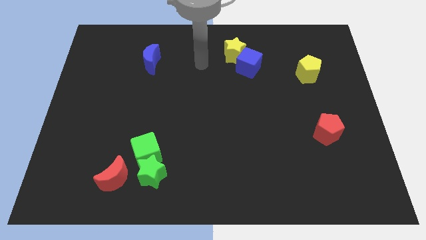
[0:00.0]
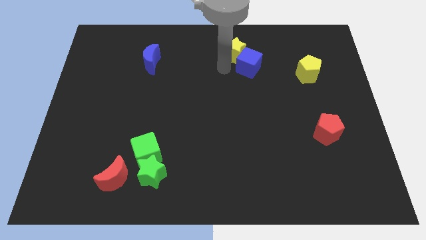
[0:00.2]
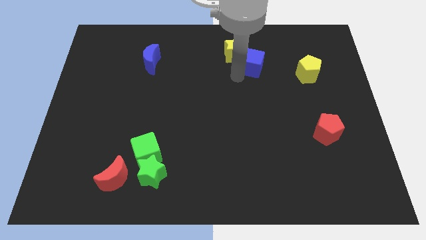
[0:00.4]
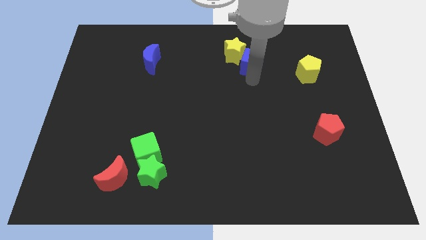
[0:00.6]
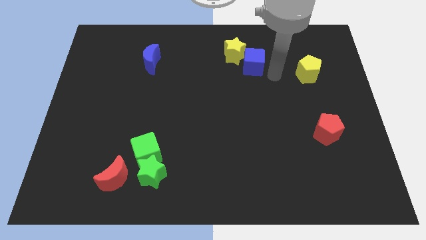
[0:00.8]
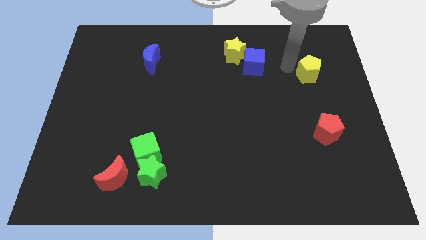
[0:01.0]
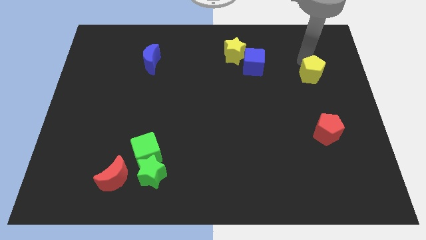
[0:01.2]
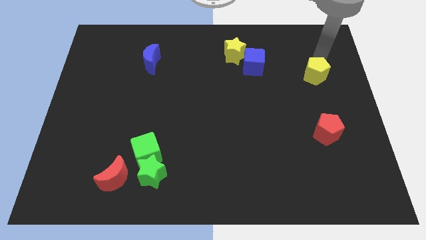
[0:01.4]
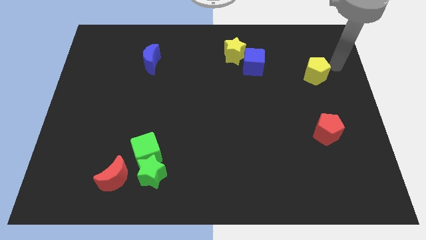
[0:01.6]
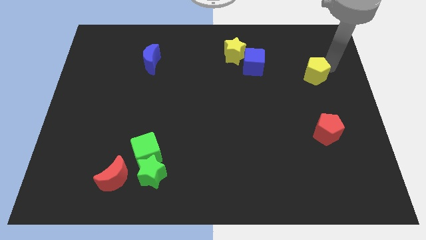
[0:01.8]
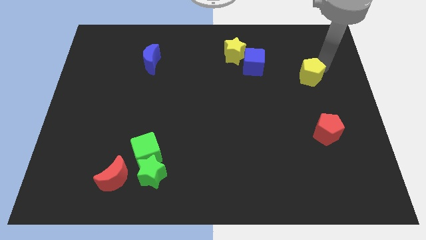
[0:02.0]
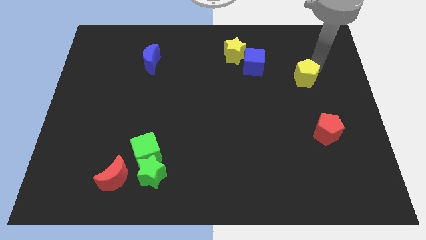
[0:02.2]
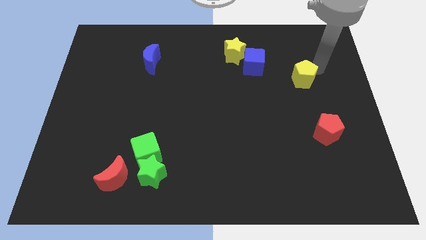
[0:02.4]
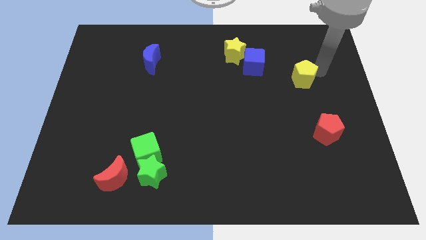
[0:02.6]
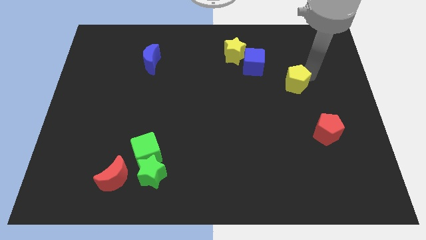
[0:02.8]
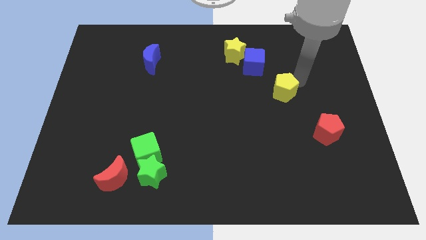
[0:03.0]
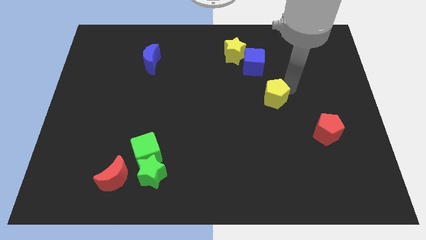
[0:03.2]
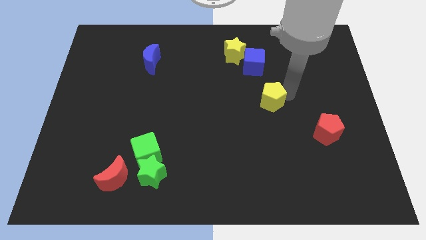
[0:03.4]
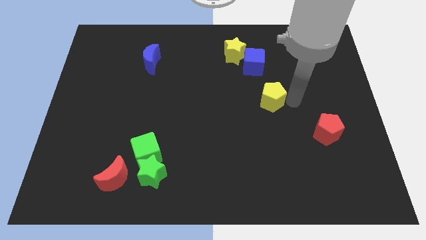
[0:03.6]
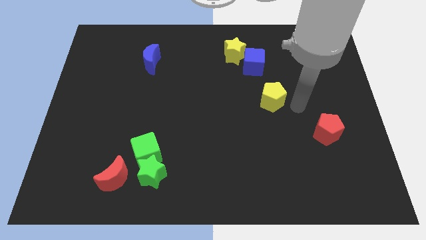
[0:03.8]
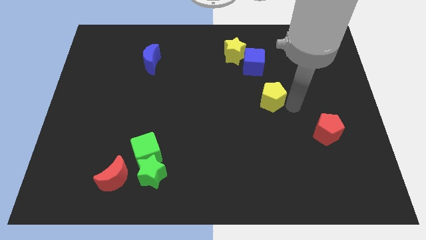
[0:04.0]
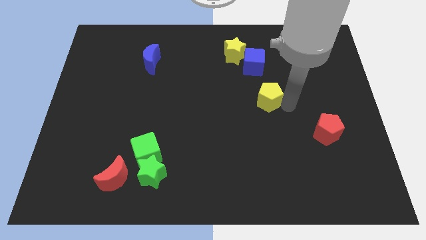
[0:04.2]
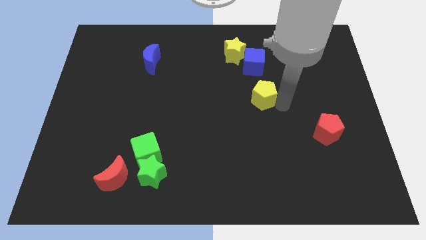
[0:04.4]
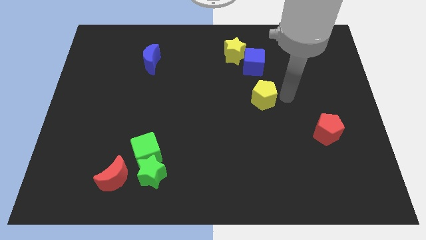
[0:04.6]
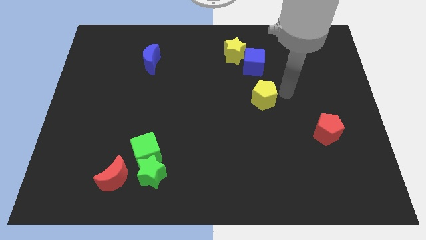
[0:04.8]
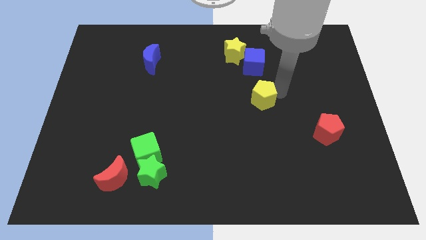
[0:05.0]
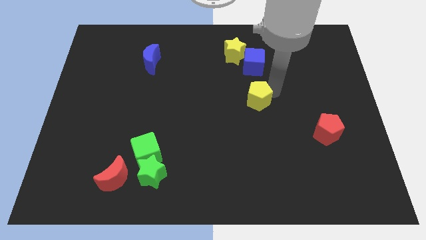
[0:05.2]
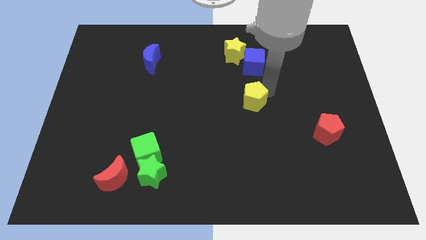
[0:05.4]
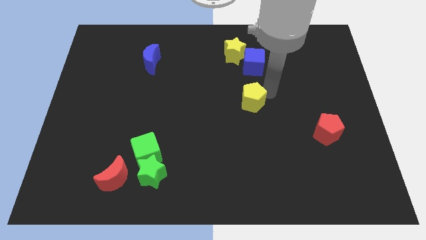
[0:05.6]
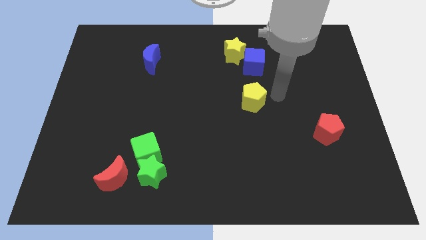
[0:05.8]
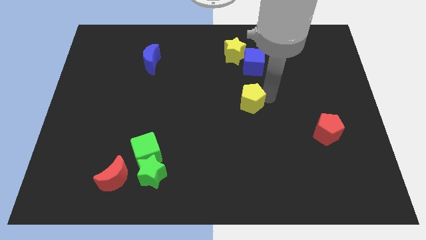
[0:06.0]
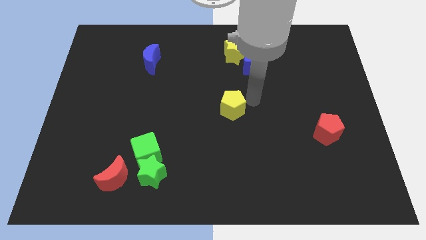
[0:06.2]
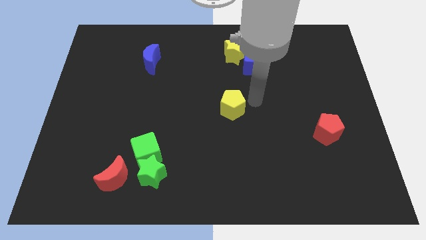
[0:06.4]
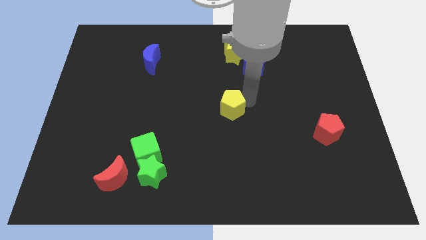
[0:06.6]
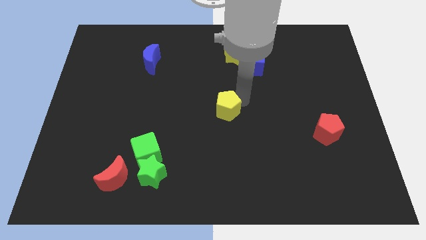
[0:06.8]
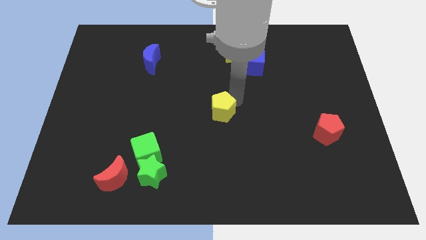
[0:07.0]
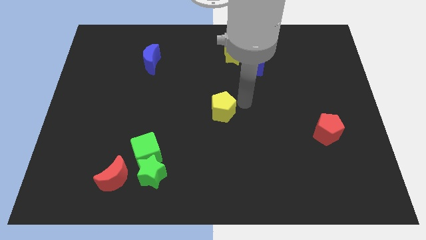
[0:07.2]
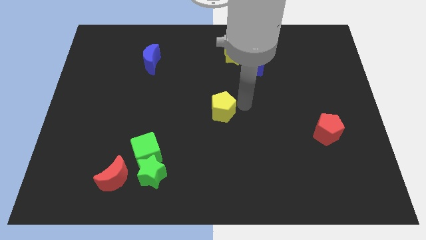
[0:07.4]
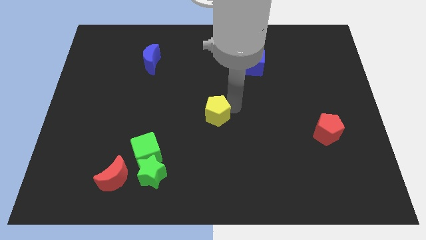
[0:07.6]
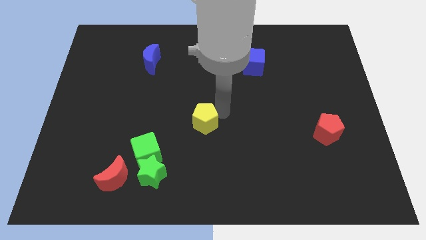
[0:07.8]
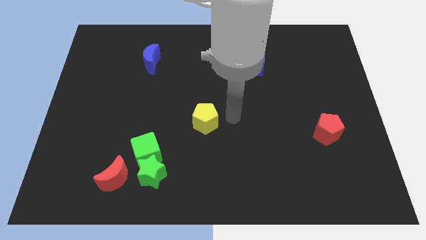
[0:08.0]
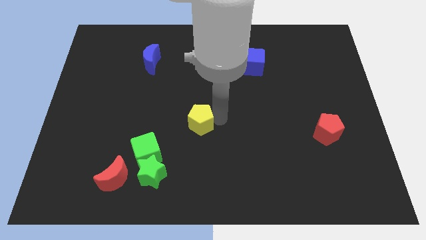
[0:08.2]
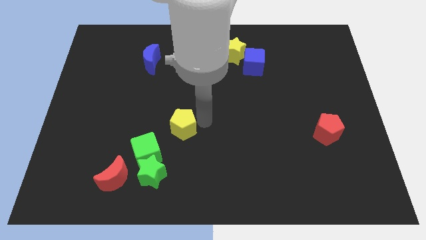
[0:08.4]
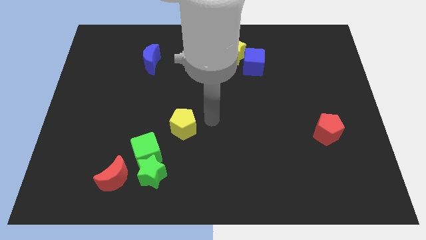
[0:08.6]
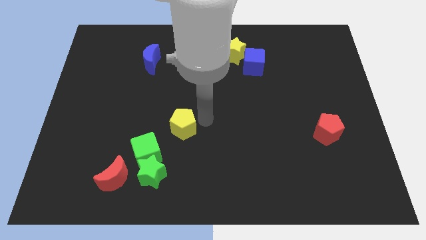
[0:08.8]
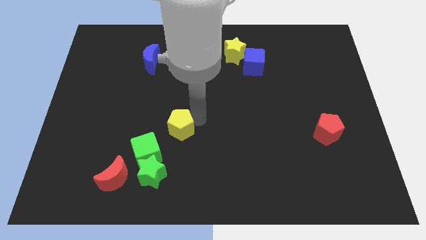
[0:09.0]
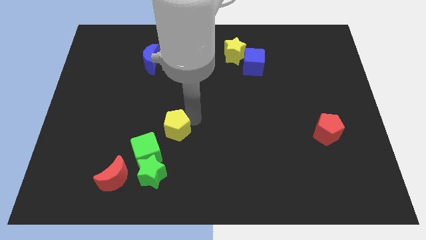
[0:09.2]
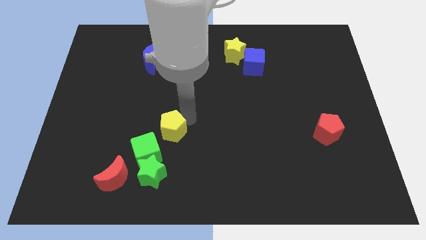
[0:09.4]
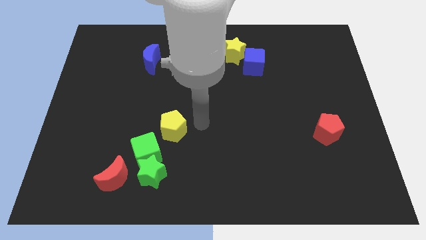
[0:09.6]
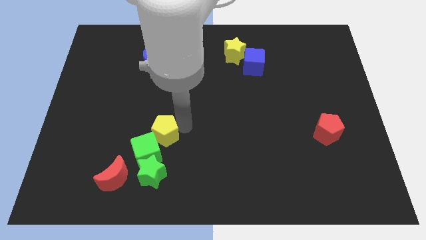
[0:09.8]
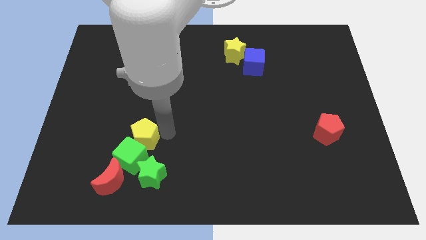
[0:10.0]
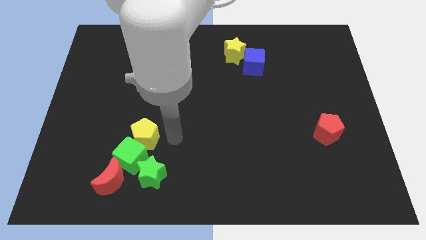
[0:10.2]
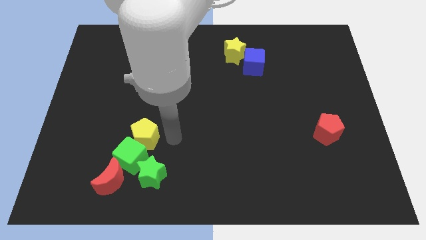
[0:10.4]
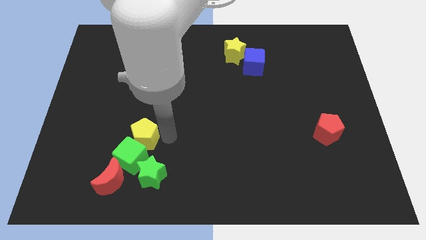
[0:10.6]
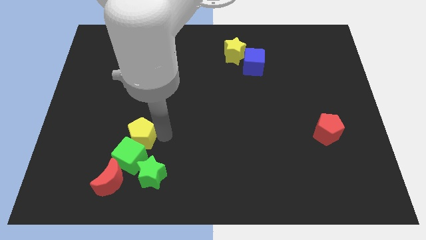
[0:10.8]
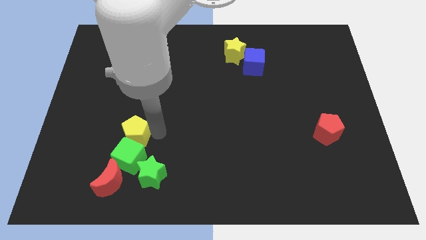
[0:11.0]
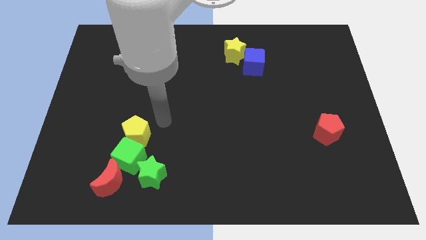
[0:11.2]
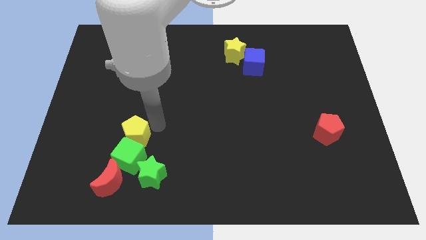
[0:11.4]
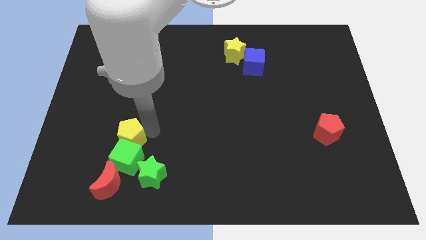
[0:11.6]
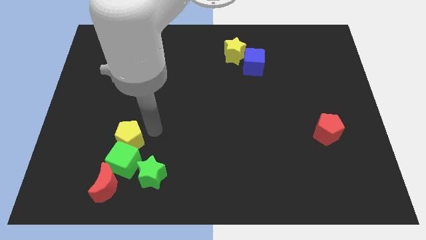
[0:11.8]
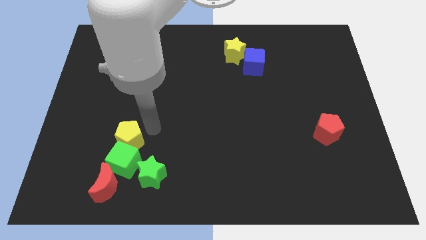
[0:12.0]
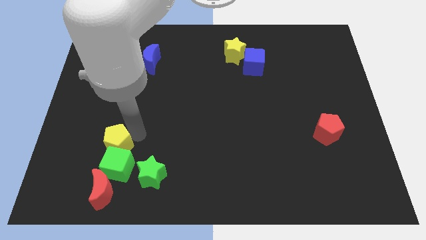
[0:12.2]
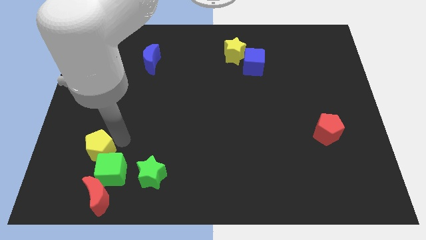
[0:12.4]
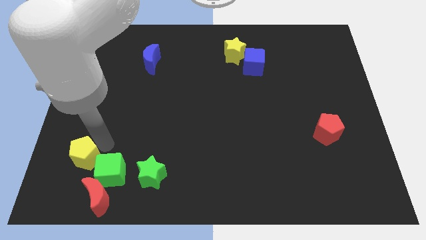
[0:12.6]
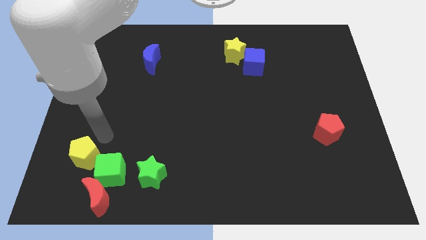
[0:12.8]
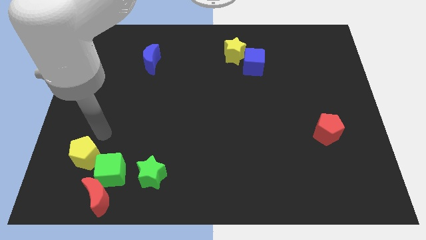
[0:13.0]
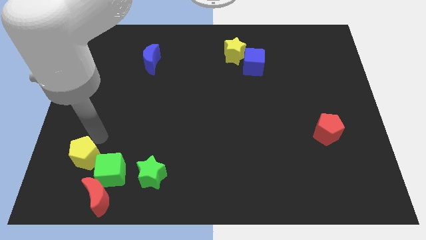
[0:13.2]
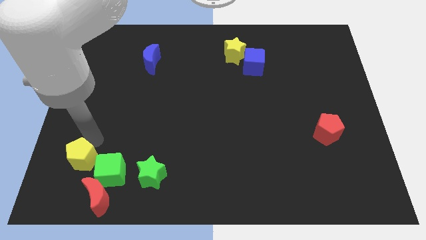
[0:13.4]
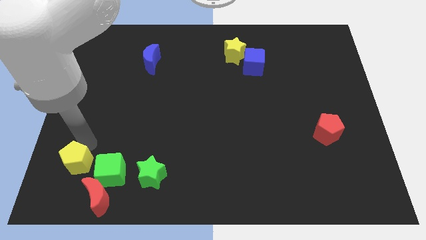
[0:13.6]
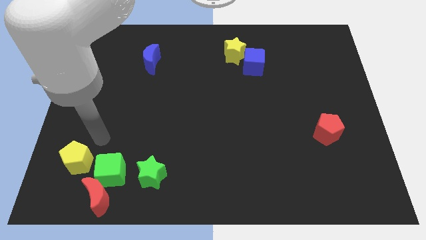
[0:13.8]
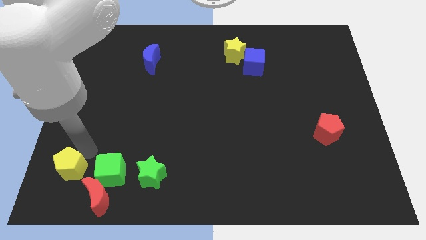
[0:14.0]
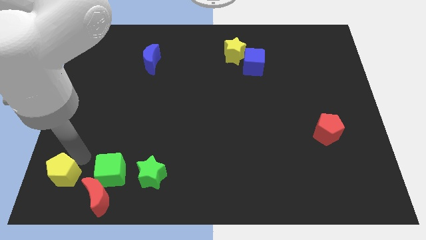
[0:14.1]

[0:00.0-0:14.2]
slide the yellow pentagon to the bottom left of the board

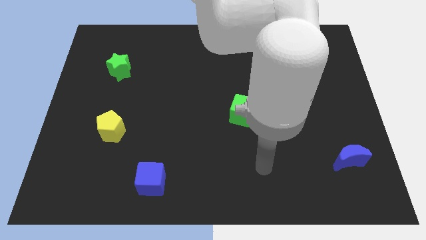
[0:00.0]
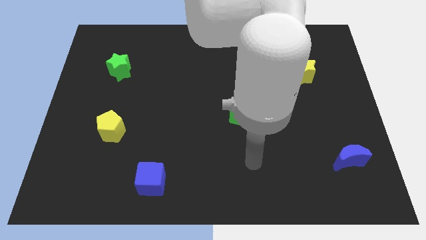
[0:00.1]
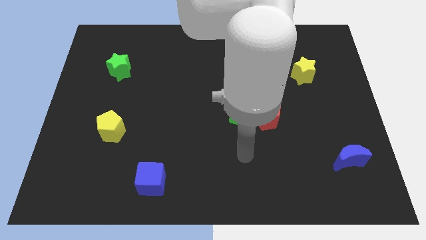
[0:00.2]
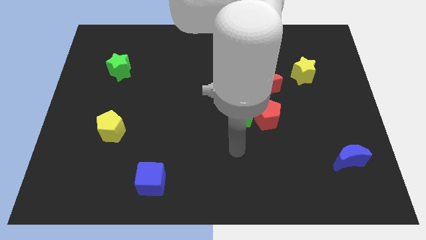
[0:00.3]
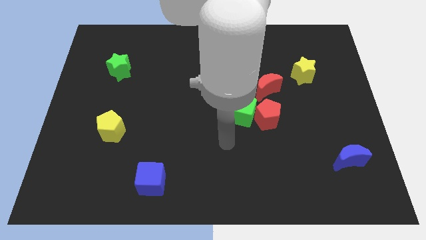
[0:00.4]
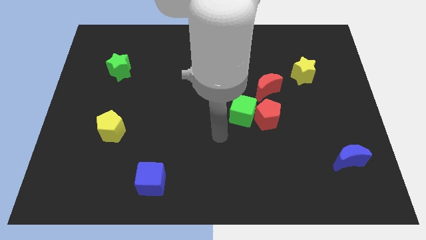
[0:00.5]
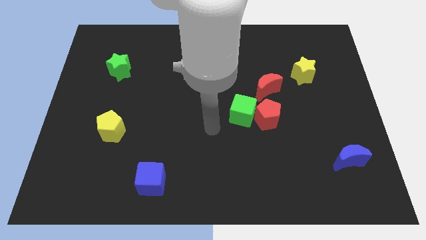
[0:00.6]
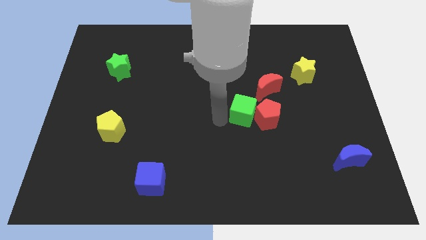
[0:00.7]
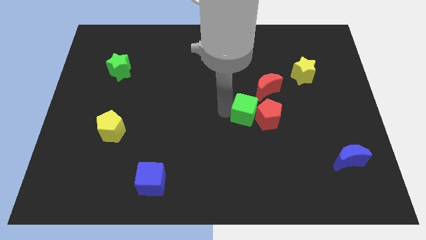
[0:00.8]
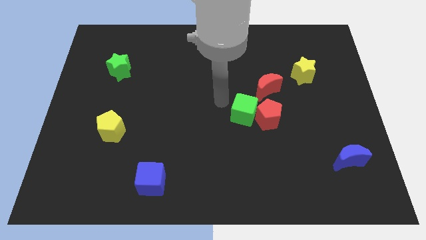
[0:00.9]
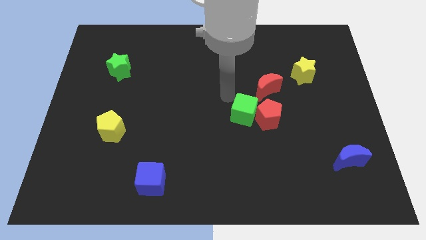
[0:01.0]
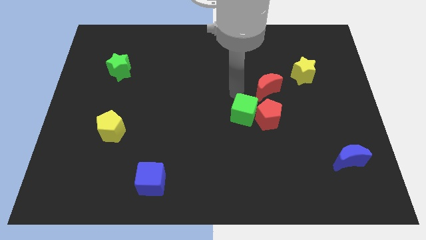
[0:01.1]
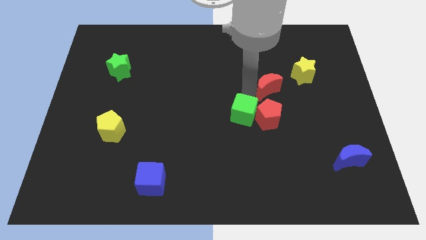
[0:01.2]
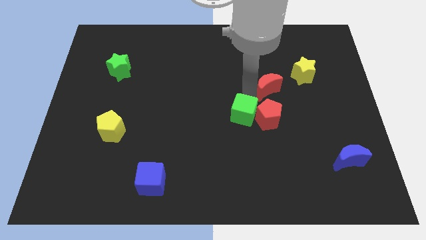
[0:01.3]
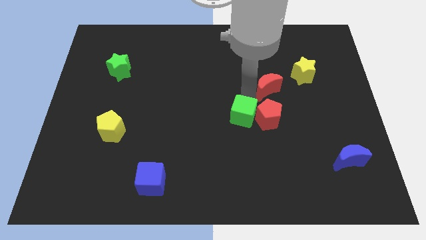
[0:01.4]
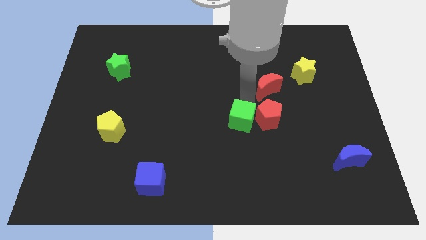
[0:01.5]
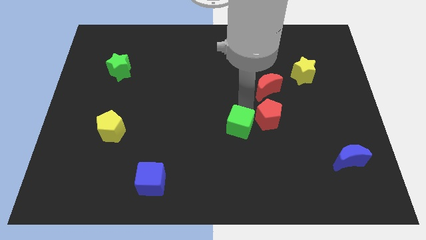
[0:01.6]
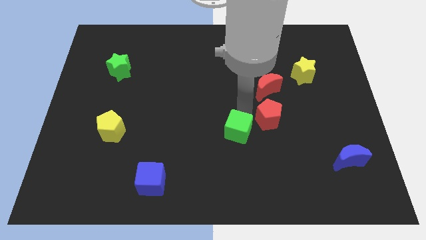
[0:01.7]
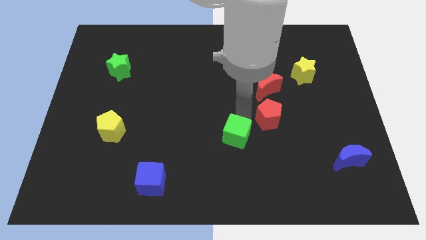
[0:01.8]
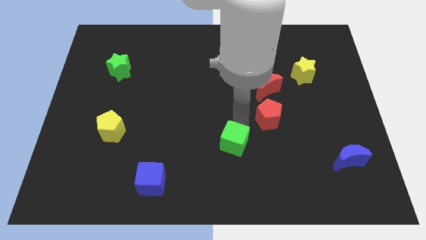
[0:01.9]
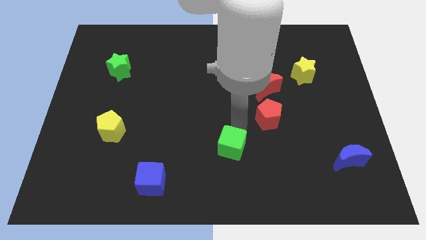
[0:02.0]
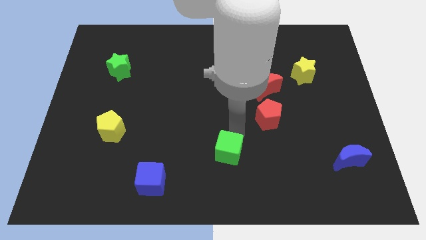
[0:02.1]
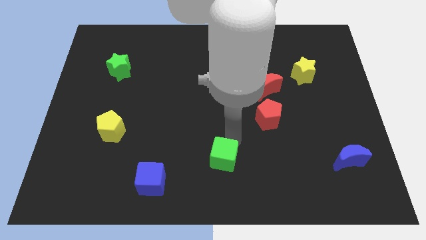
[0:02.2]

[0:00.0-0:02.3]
slide the green cube to the bottom side
